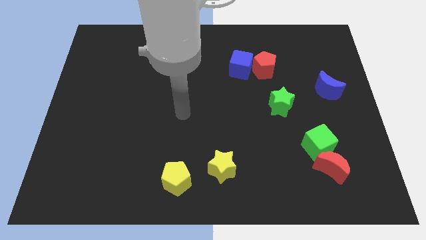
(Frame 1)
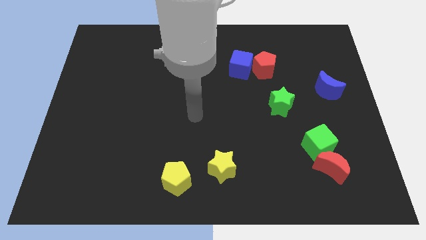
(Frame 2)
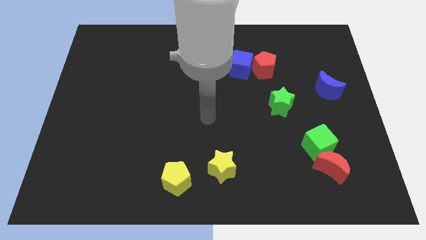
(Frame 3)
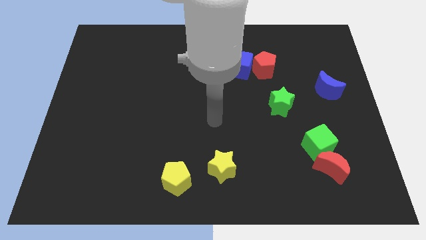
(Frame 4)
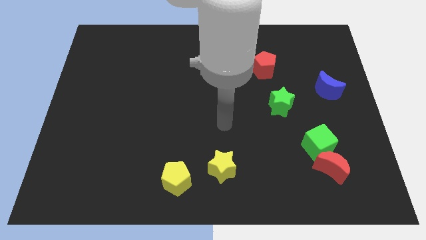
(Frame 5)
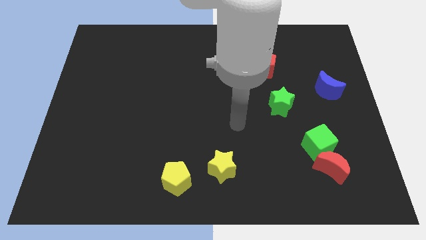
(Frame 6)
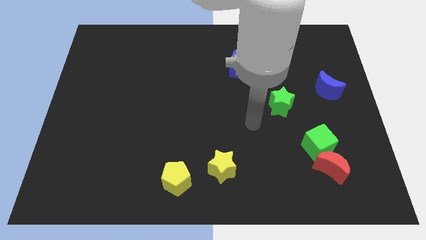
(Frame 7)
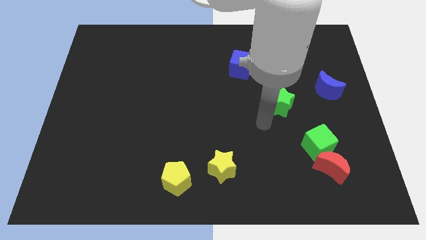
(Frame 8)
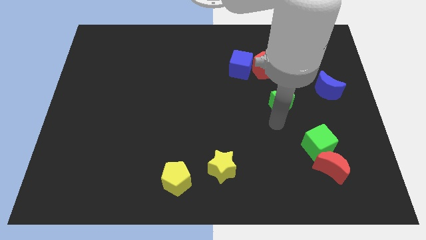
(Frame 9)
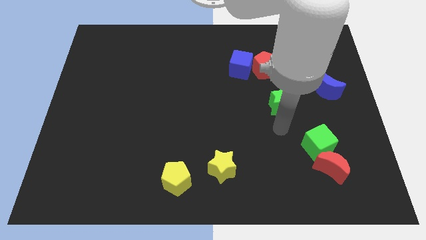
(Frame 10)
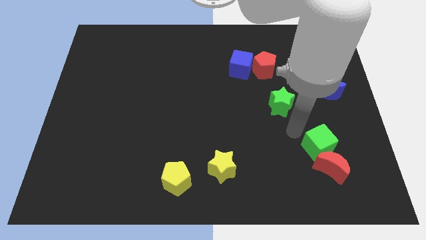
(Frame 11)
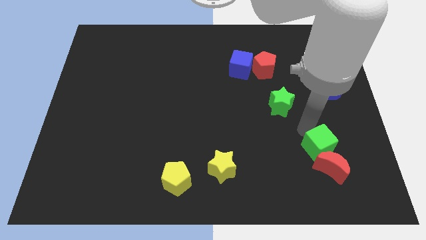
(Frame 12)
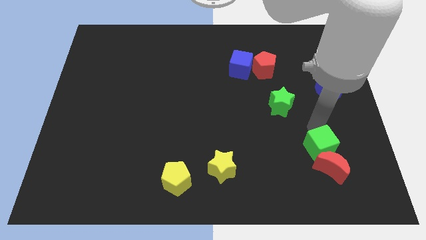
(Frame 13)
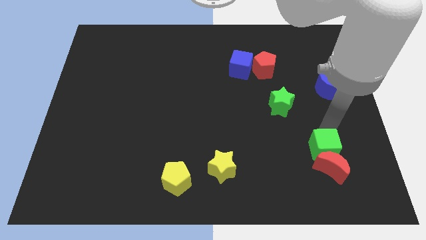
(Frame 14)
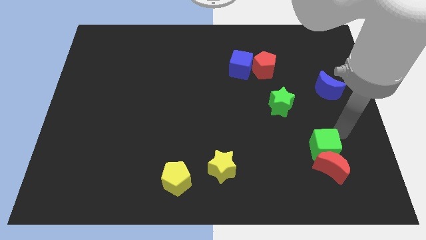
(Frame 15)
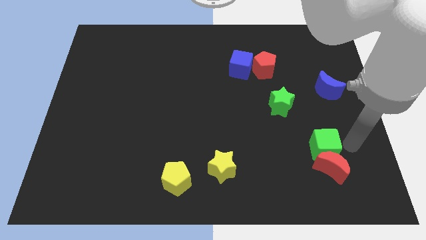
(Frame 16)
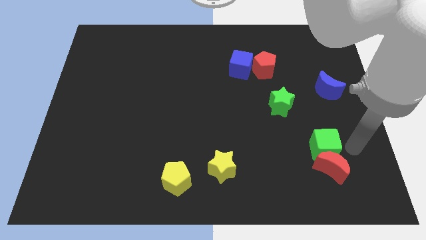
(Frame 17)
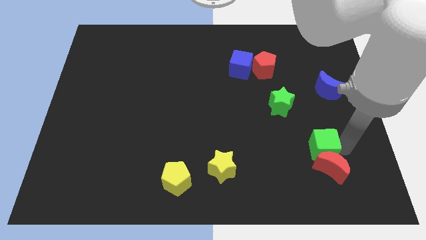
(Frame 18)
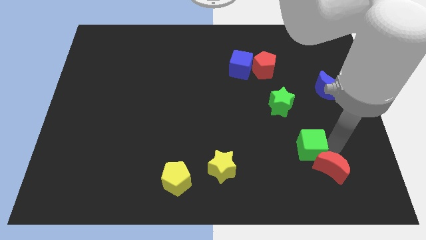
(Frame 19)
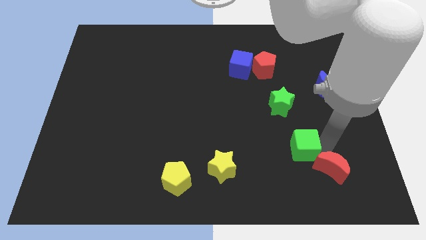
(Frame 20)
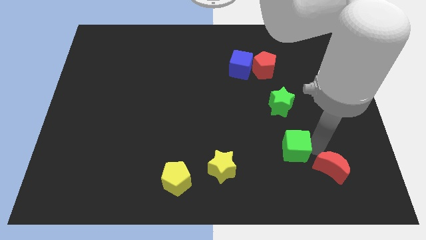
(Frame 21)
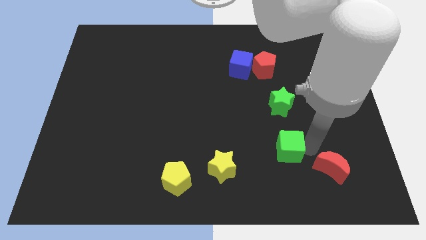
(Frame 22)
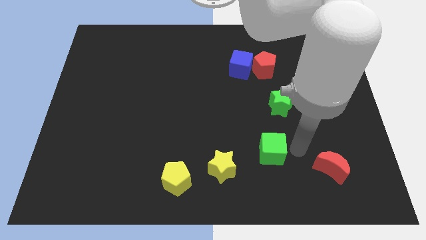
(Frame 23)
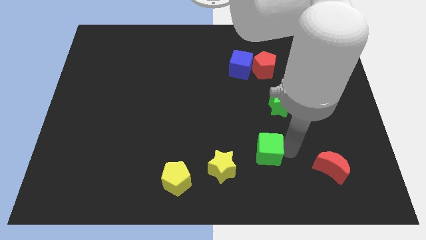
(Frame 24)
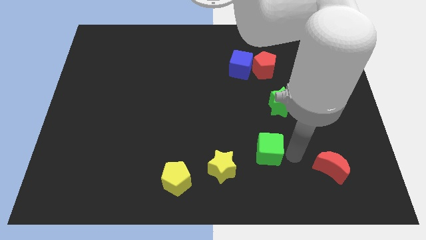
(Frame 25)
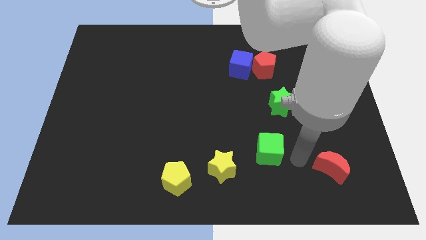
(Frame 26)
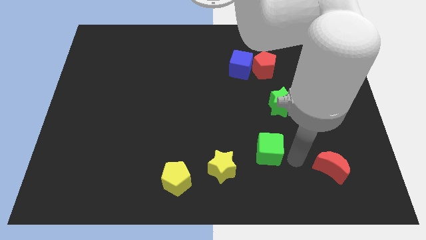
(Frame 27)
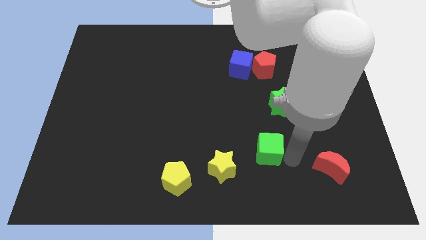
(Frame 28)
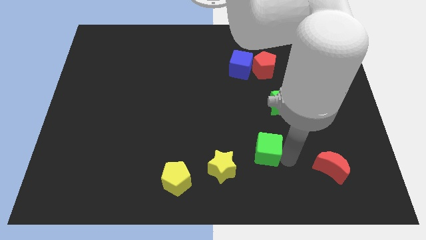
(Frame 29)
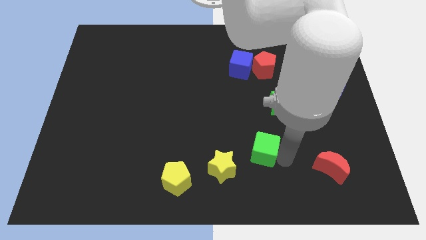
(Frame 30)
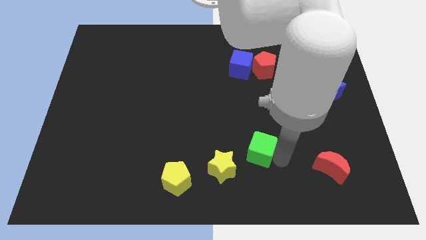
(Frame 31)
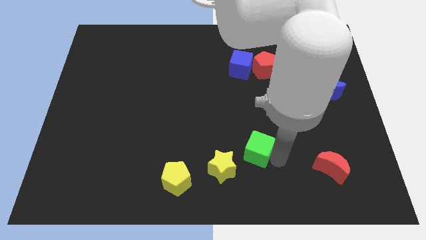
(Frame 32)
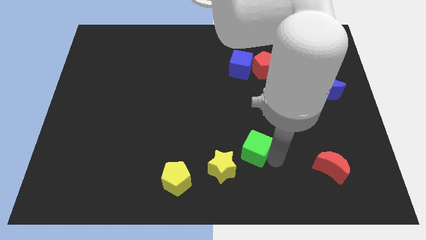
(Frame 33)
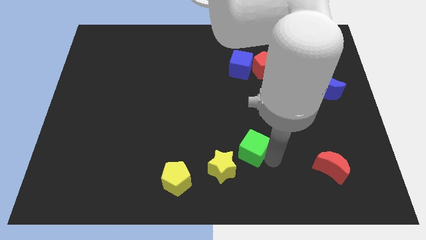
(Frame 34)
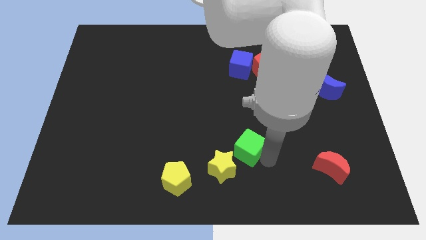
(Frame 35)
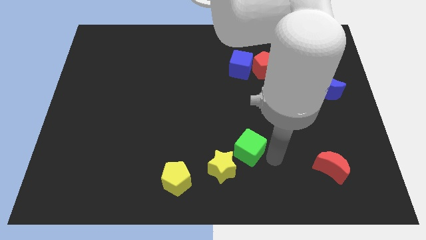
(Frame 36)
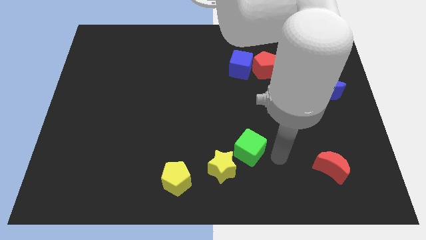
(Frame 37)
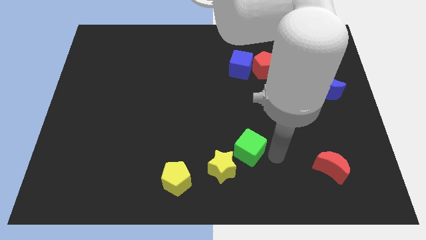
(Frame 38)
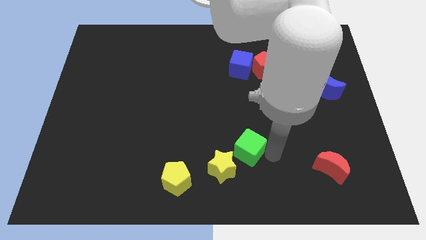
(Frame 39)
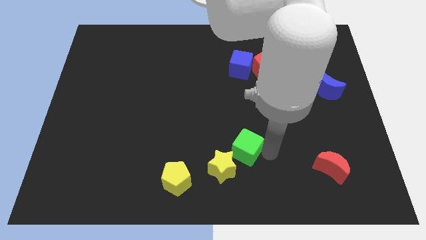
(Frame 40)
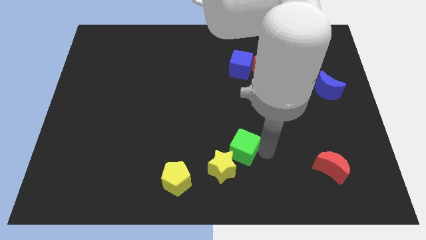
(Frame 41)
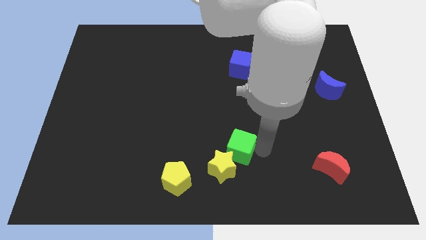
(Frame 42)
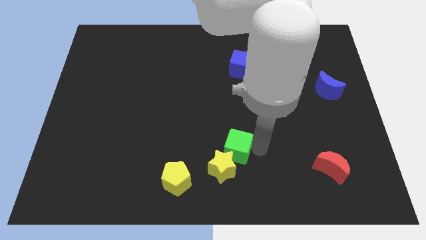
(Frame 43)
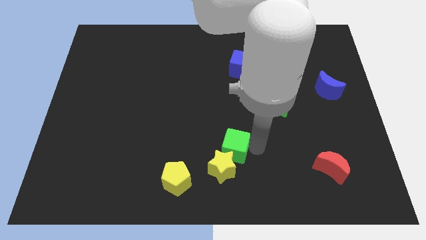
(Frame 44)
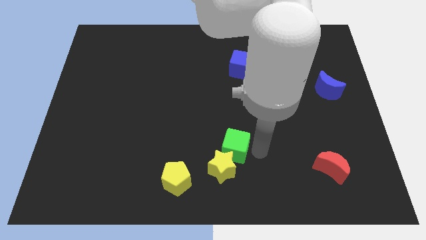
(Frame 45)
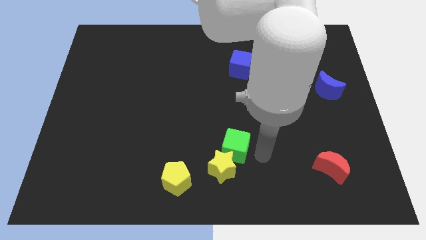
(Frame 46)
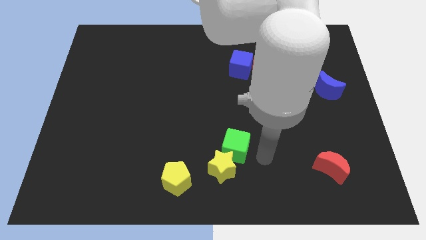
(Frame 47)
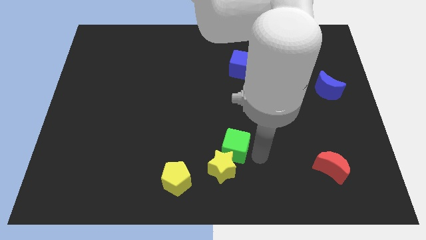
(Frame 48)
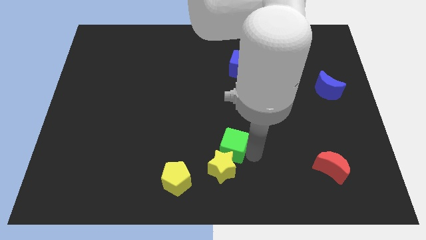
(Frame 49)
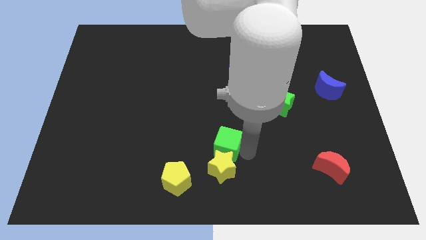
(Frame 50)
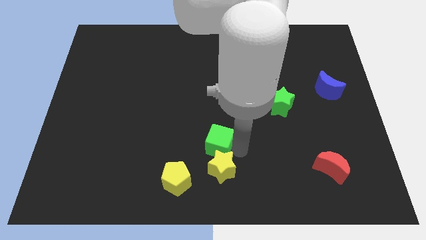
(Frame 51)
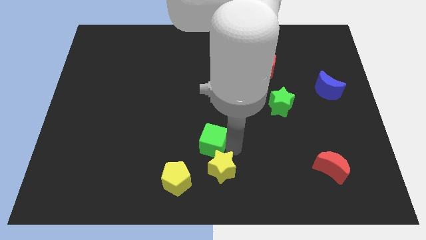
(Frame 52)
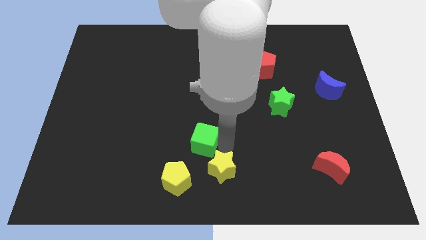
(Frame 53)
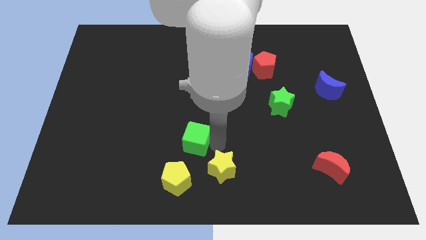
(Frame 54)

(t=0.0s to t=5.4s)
put the green cube to the top side of the yellow pentagon

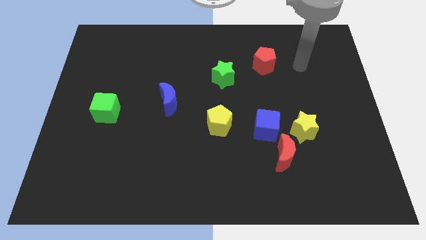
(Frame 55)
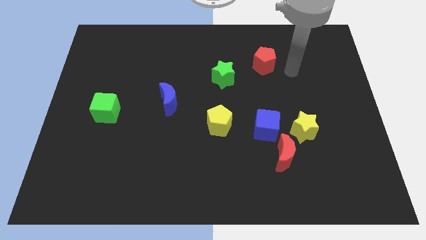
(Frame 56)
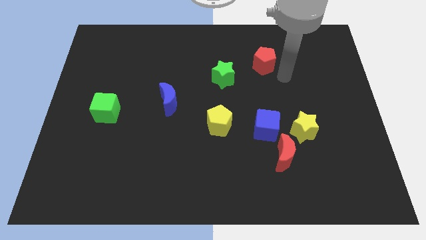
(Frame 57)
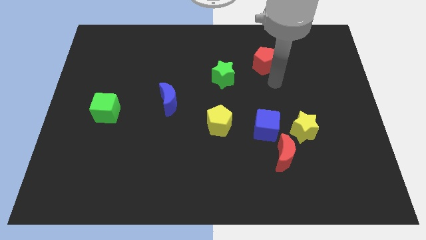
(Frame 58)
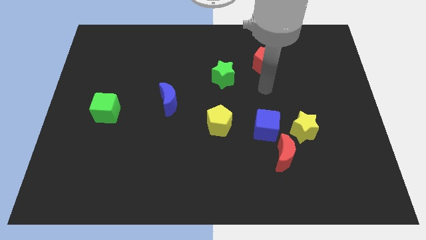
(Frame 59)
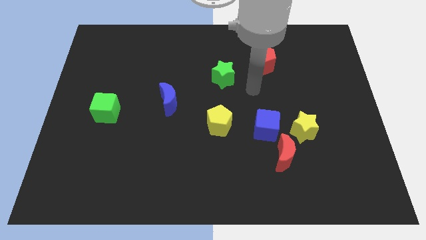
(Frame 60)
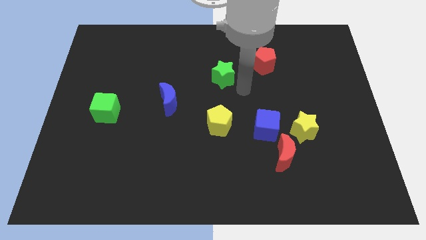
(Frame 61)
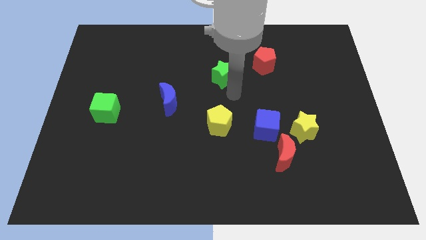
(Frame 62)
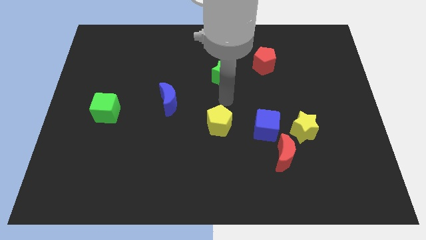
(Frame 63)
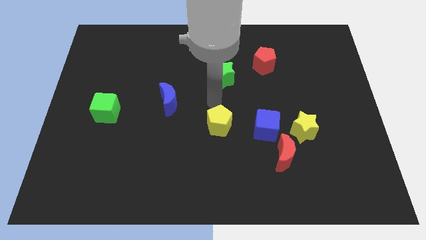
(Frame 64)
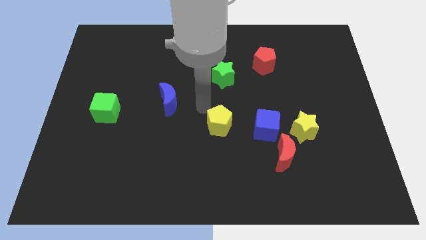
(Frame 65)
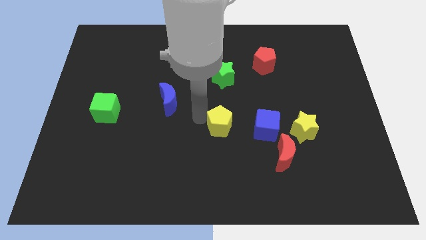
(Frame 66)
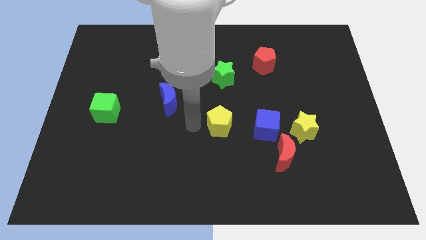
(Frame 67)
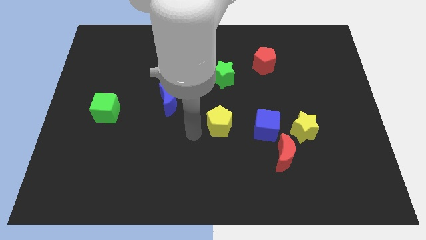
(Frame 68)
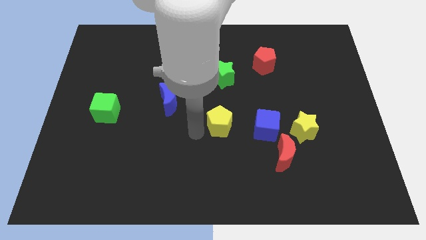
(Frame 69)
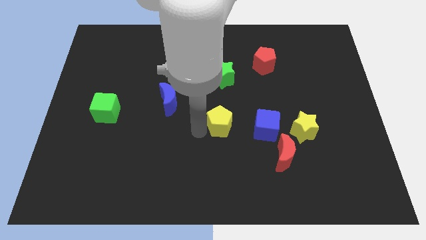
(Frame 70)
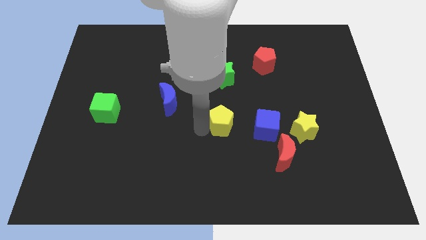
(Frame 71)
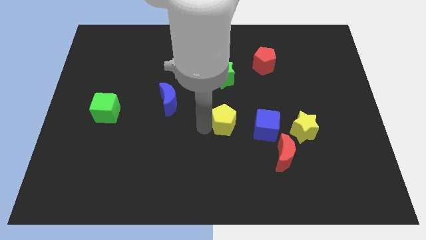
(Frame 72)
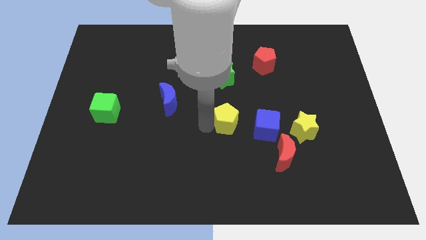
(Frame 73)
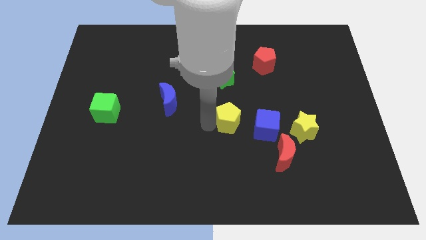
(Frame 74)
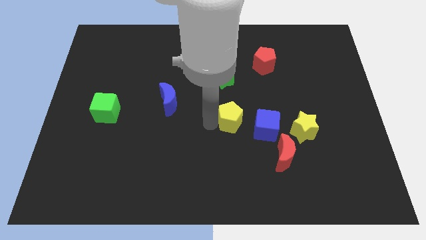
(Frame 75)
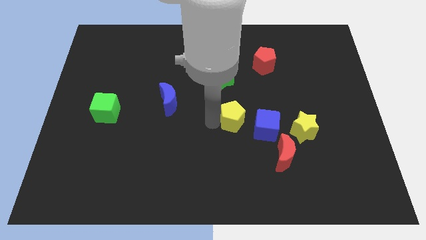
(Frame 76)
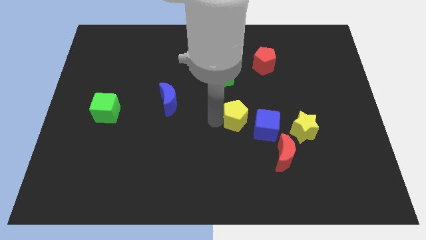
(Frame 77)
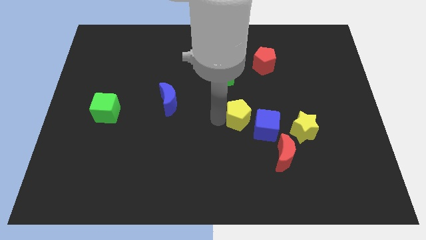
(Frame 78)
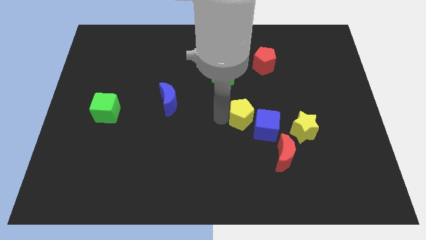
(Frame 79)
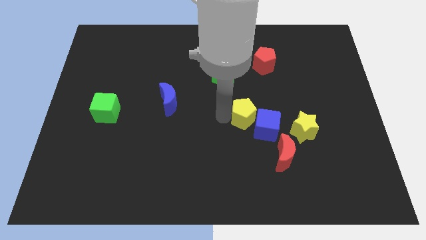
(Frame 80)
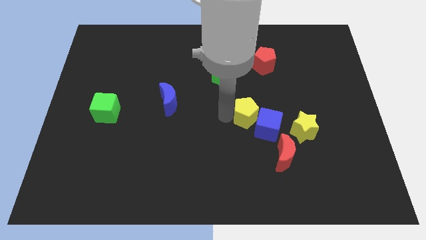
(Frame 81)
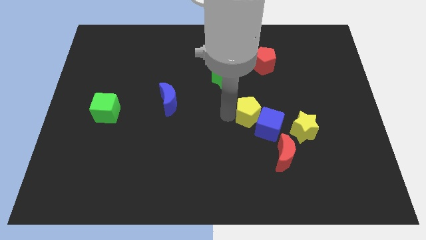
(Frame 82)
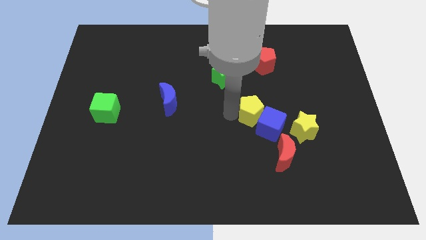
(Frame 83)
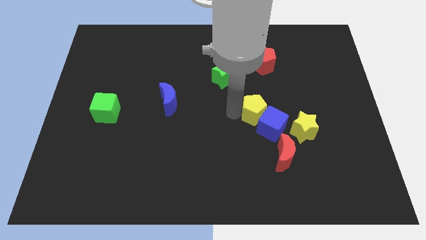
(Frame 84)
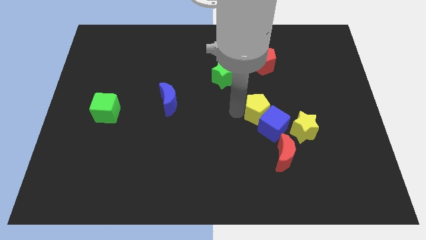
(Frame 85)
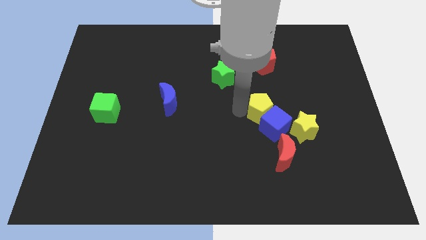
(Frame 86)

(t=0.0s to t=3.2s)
put the yellow pentagon above the red moon
